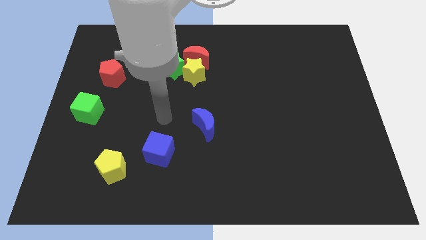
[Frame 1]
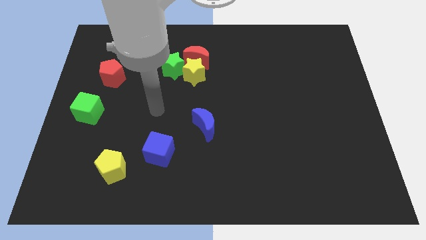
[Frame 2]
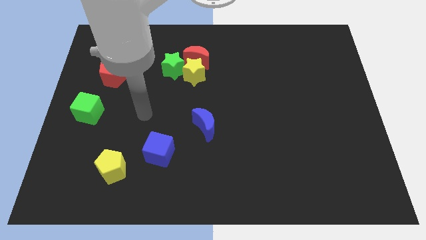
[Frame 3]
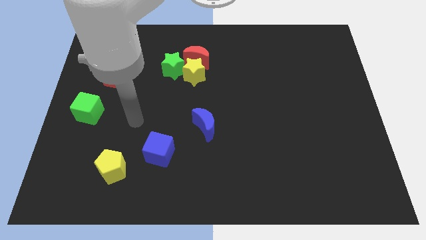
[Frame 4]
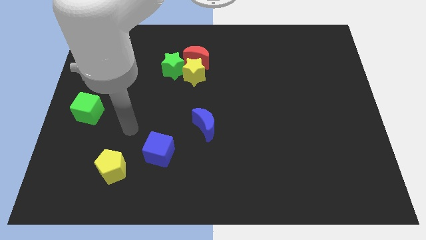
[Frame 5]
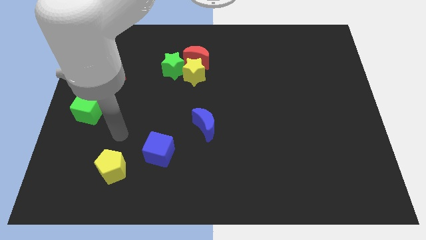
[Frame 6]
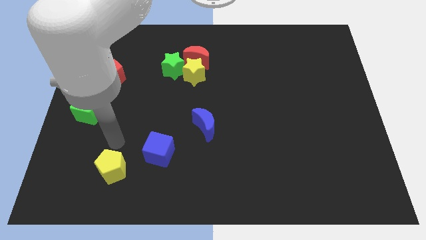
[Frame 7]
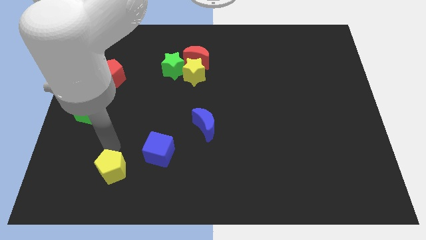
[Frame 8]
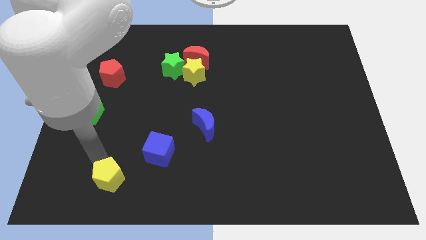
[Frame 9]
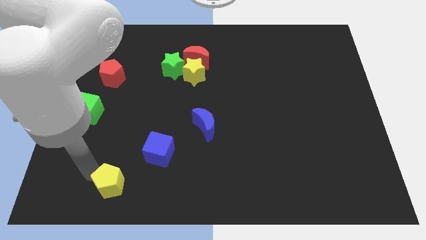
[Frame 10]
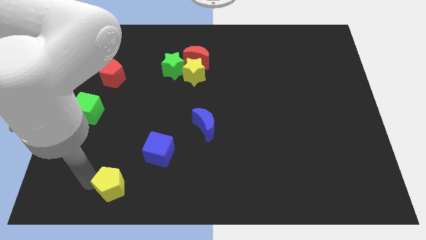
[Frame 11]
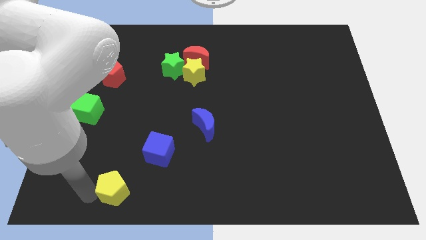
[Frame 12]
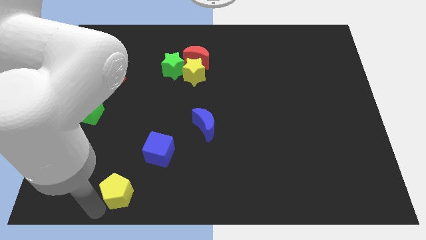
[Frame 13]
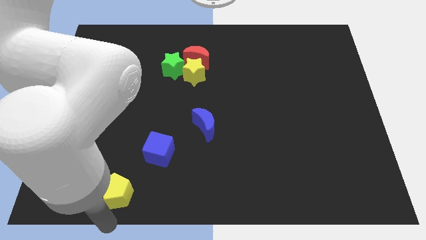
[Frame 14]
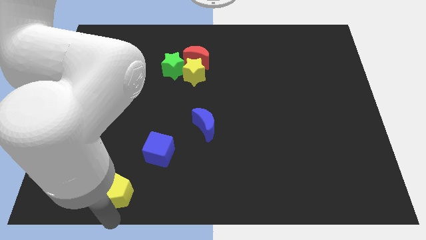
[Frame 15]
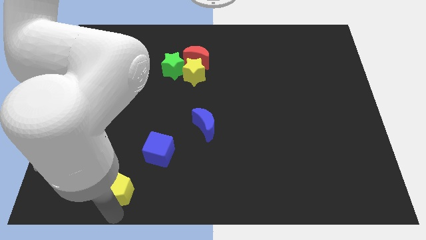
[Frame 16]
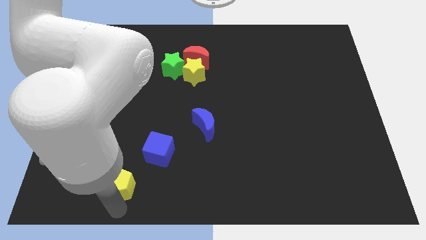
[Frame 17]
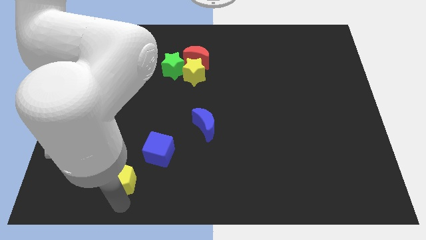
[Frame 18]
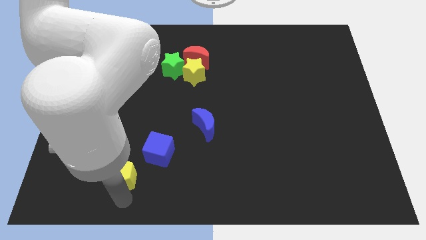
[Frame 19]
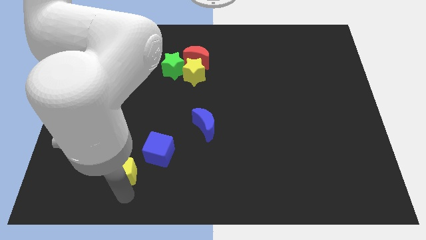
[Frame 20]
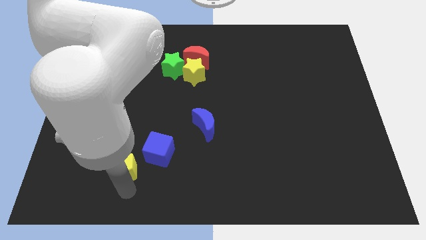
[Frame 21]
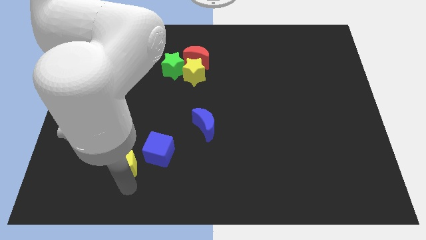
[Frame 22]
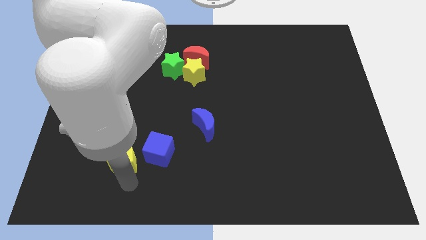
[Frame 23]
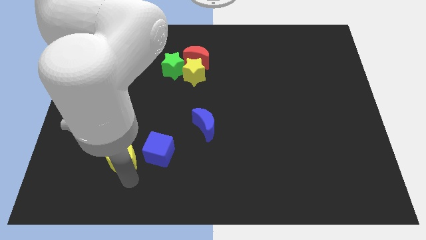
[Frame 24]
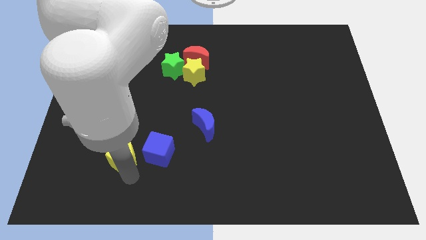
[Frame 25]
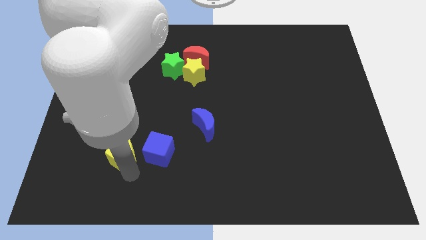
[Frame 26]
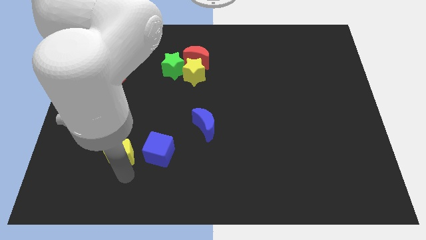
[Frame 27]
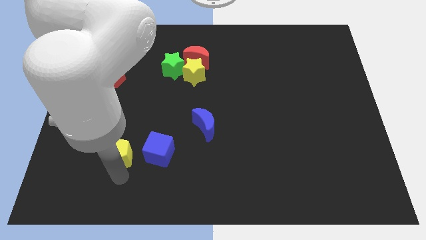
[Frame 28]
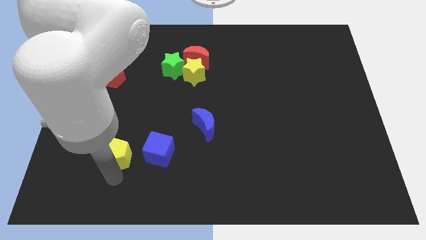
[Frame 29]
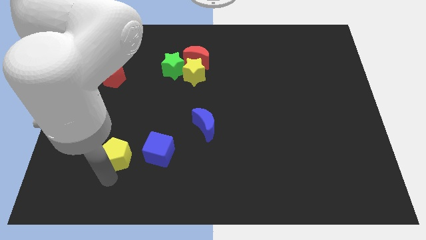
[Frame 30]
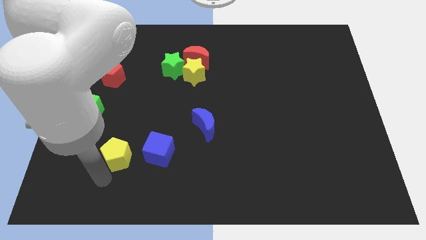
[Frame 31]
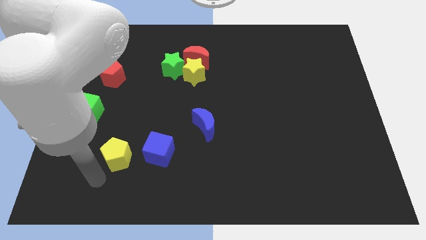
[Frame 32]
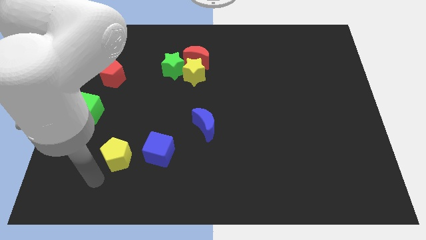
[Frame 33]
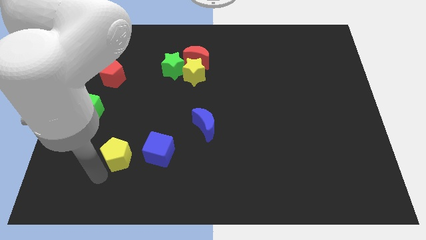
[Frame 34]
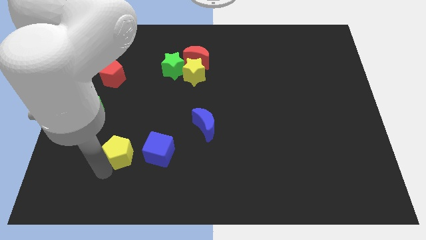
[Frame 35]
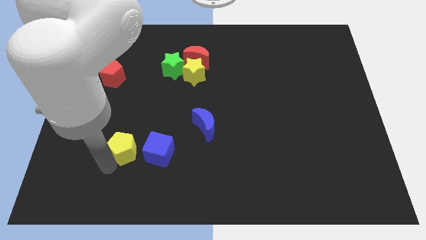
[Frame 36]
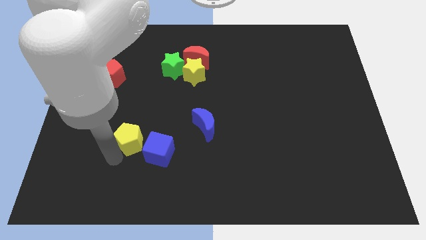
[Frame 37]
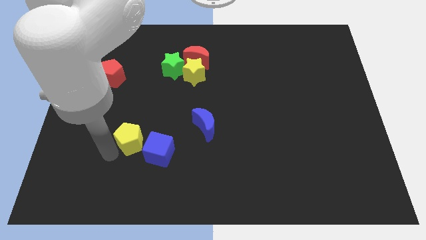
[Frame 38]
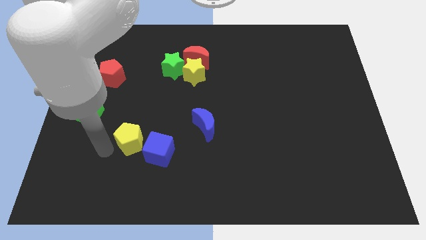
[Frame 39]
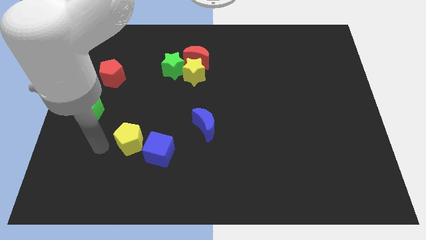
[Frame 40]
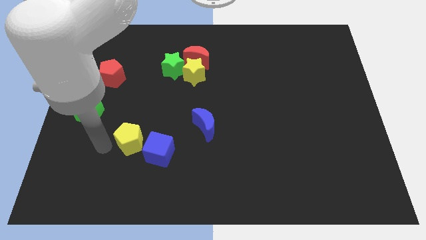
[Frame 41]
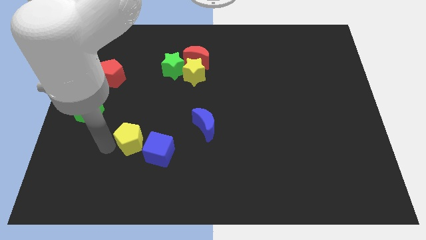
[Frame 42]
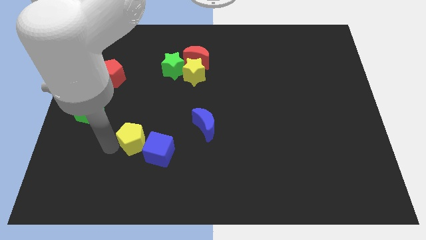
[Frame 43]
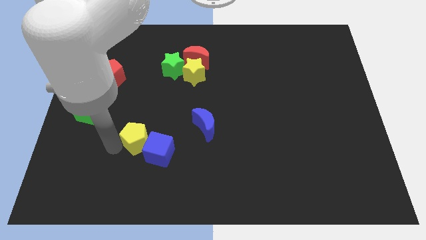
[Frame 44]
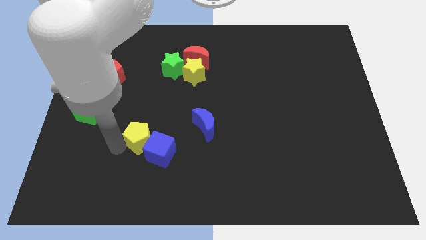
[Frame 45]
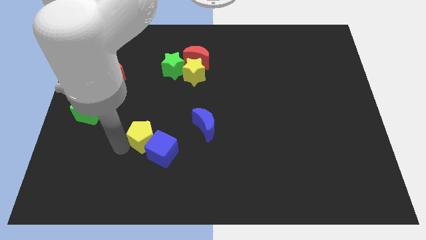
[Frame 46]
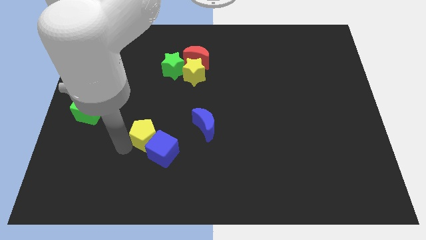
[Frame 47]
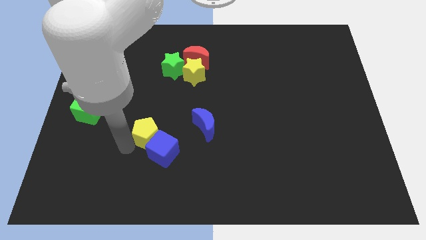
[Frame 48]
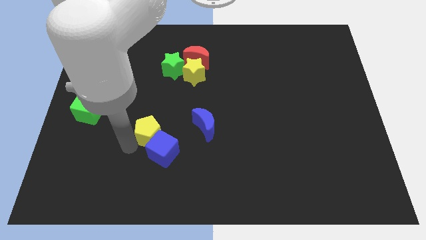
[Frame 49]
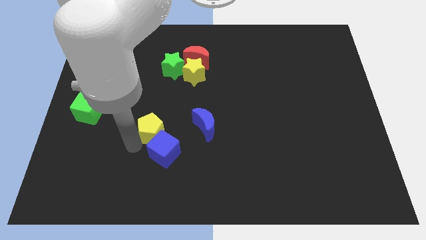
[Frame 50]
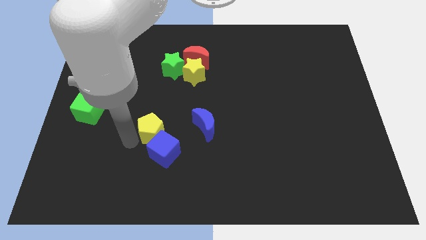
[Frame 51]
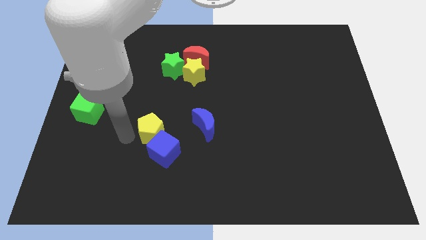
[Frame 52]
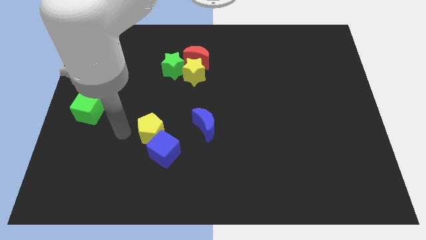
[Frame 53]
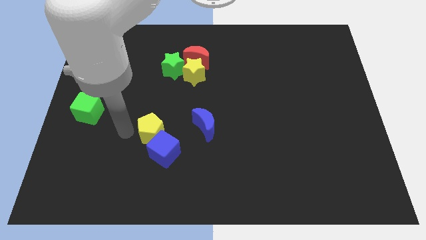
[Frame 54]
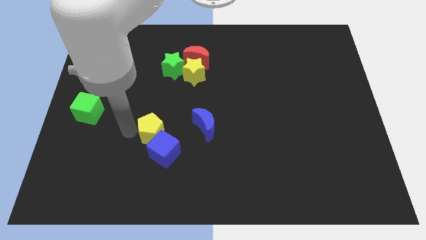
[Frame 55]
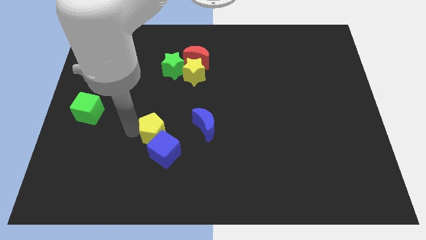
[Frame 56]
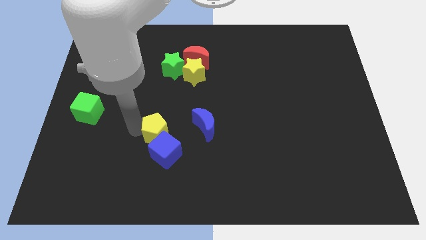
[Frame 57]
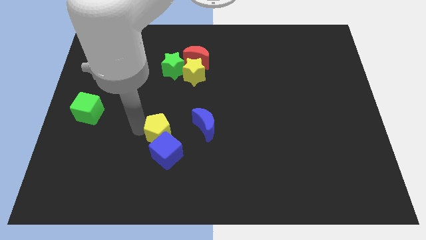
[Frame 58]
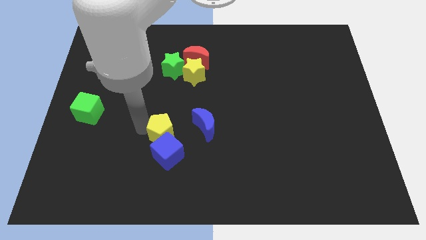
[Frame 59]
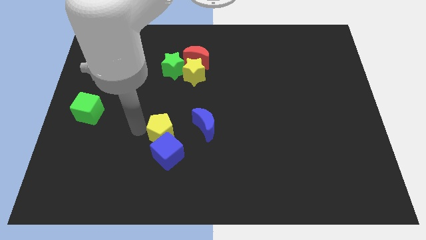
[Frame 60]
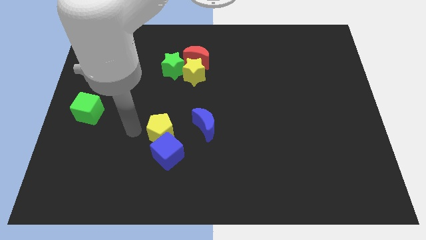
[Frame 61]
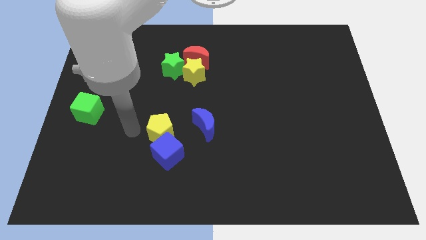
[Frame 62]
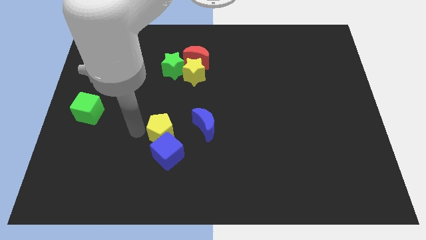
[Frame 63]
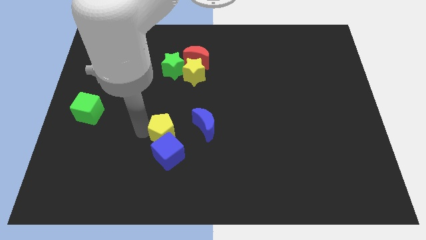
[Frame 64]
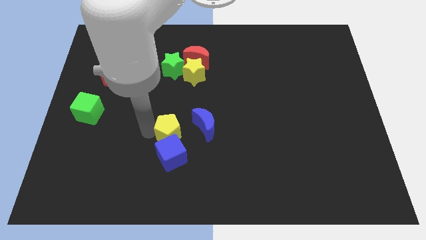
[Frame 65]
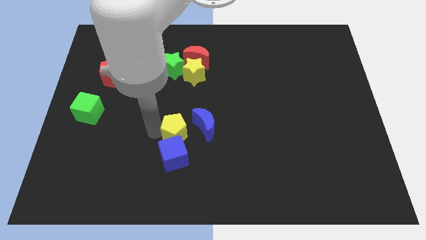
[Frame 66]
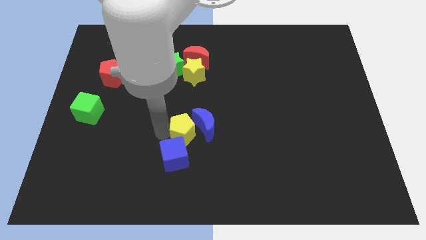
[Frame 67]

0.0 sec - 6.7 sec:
move the yellow pentagon towards the blue moon
